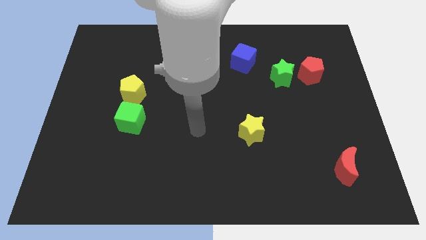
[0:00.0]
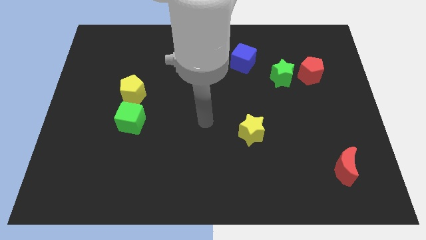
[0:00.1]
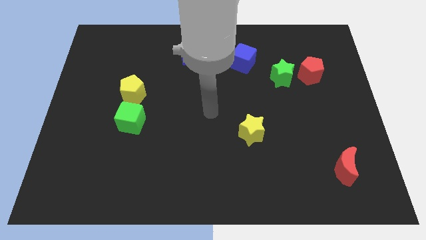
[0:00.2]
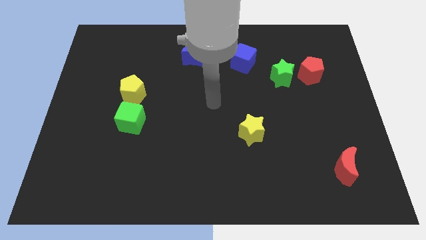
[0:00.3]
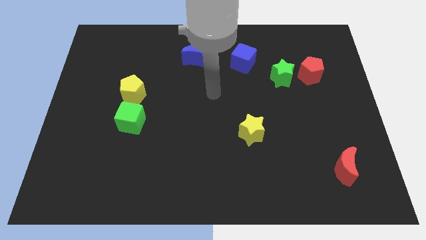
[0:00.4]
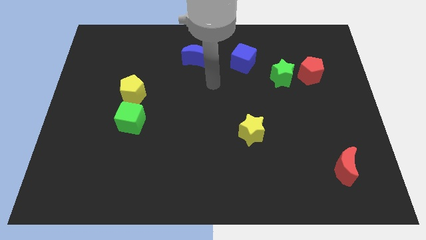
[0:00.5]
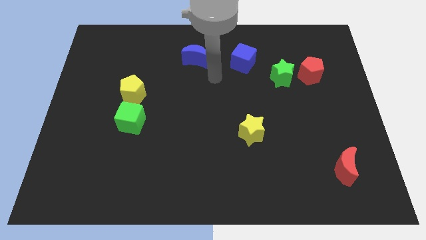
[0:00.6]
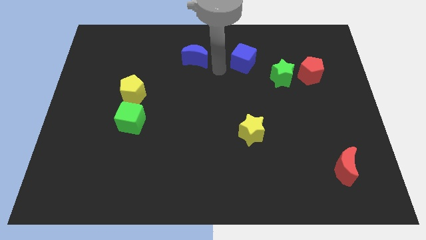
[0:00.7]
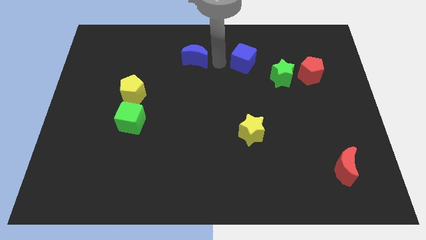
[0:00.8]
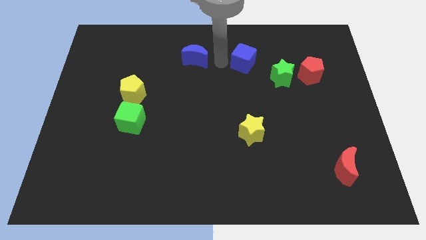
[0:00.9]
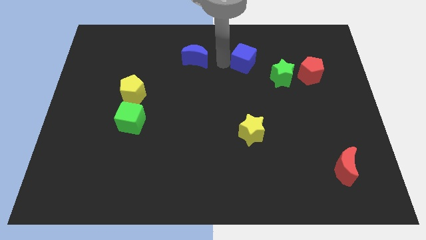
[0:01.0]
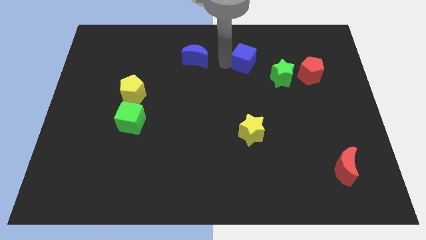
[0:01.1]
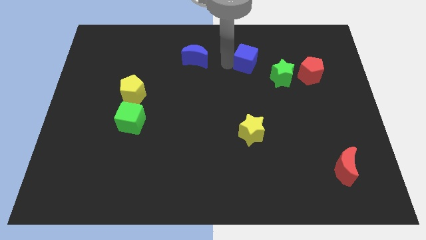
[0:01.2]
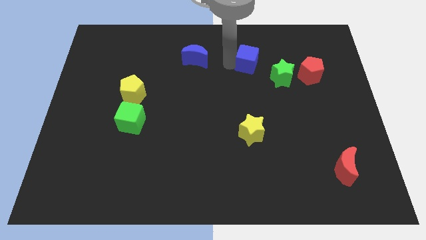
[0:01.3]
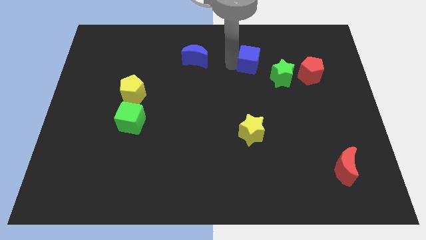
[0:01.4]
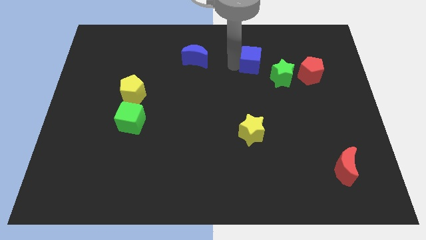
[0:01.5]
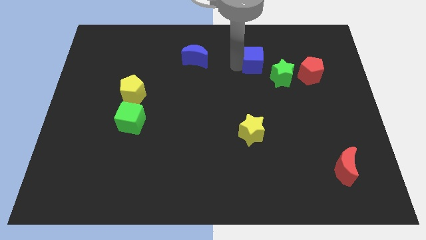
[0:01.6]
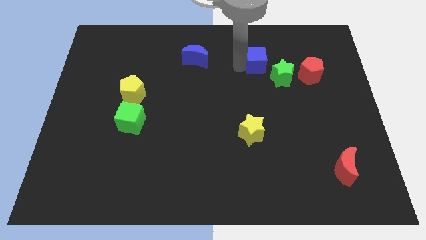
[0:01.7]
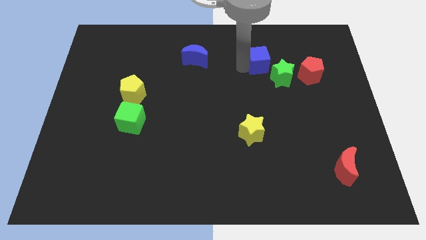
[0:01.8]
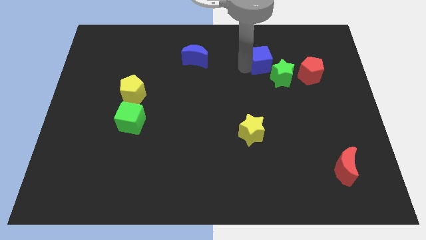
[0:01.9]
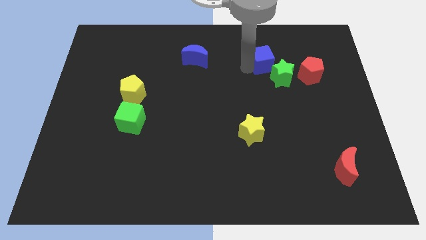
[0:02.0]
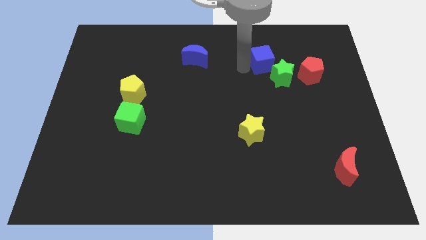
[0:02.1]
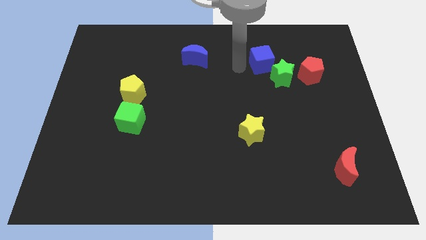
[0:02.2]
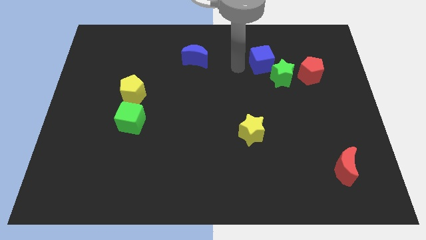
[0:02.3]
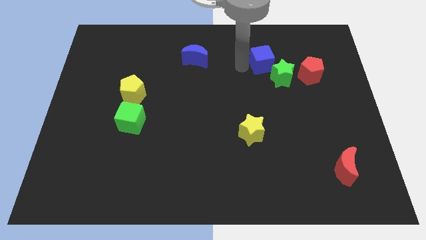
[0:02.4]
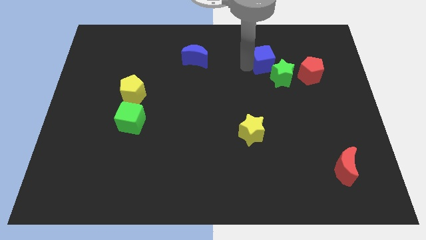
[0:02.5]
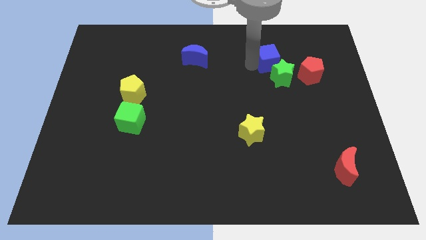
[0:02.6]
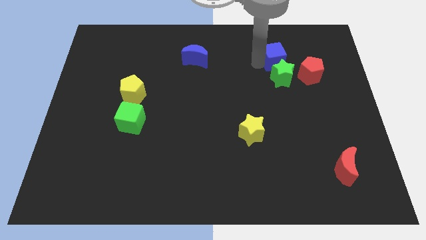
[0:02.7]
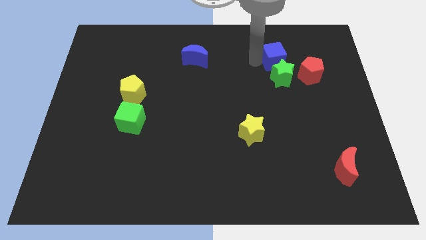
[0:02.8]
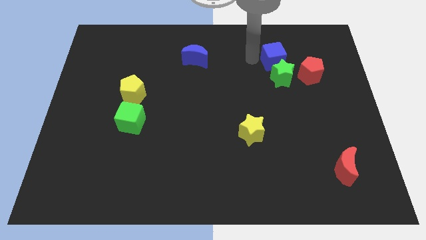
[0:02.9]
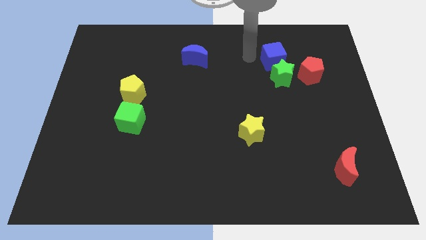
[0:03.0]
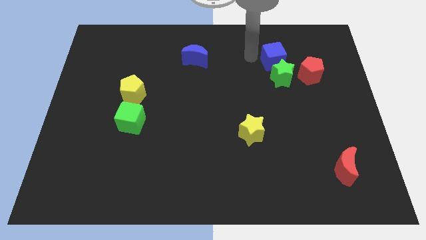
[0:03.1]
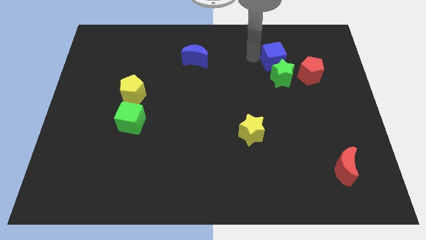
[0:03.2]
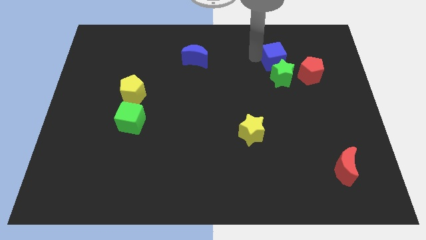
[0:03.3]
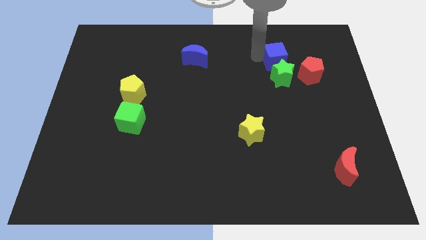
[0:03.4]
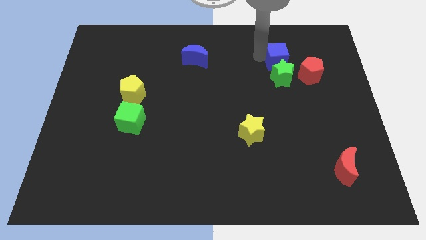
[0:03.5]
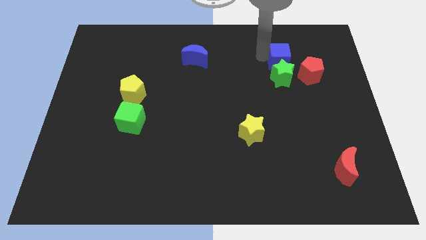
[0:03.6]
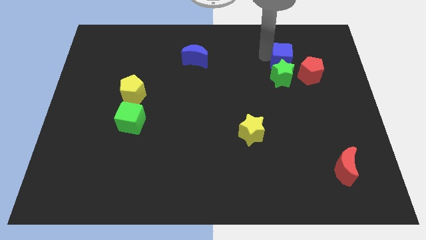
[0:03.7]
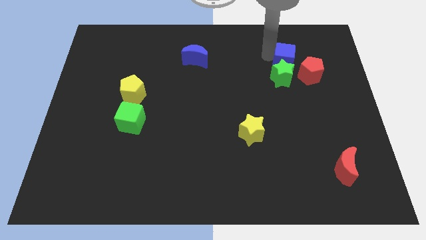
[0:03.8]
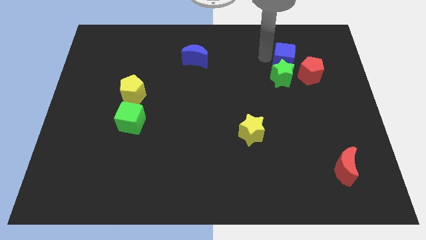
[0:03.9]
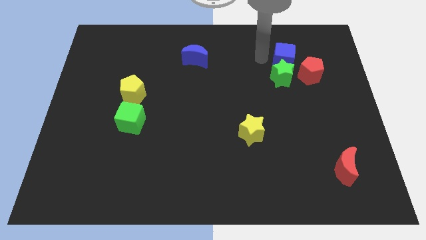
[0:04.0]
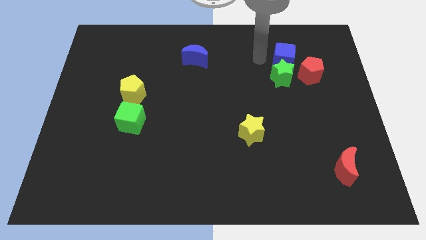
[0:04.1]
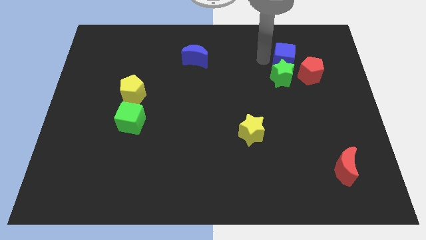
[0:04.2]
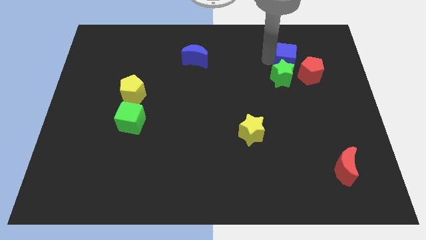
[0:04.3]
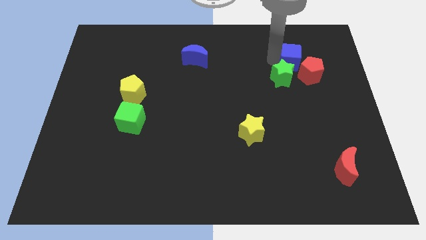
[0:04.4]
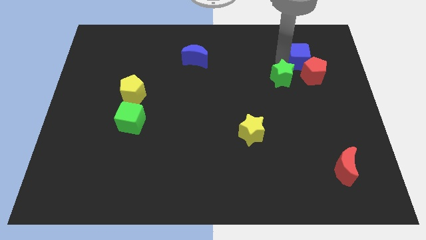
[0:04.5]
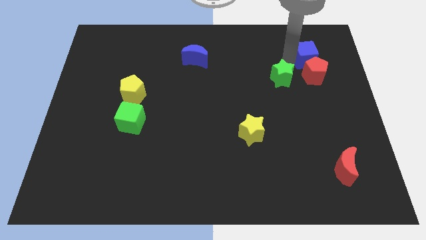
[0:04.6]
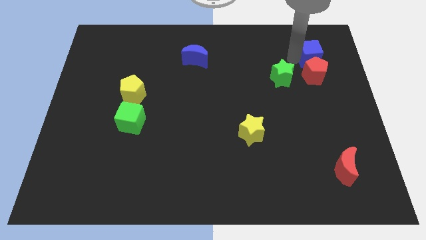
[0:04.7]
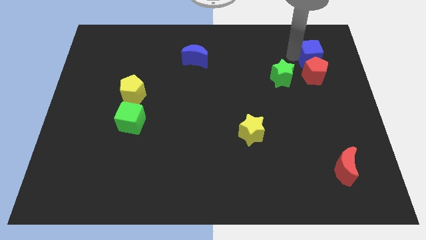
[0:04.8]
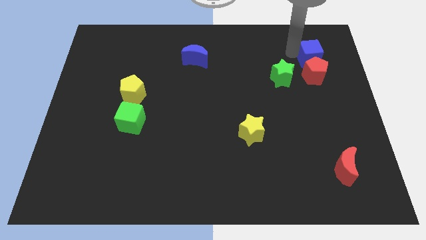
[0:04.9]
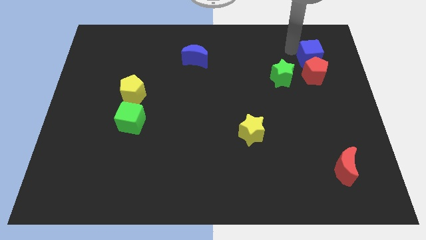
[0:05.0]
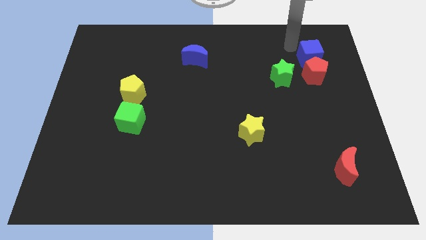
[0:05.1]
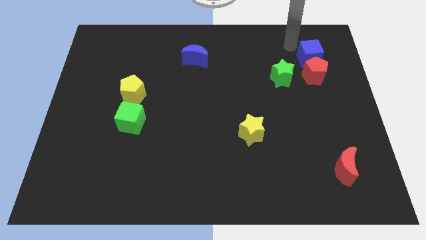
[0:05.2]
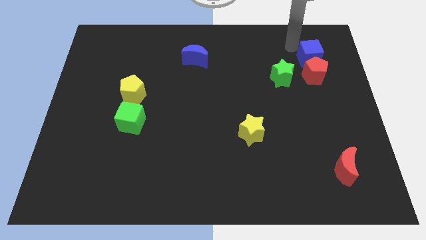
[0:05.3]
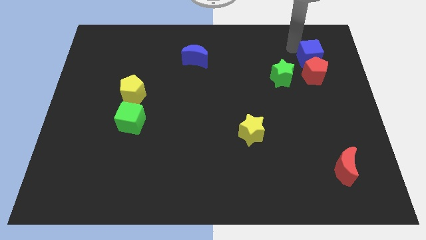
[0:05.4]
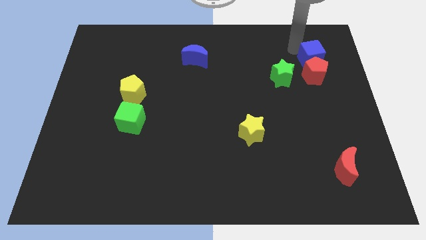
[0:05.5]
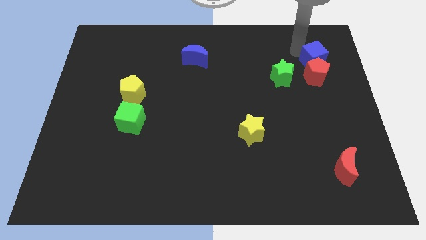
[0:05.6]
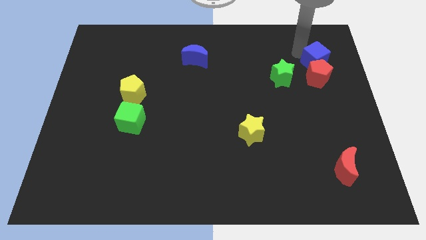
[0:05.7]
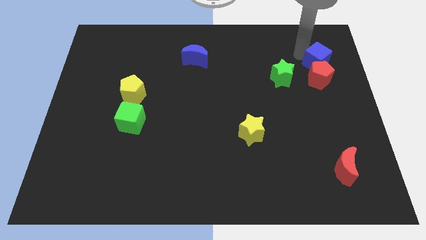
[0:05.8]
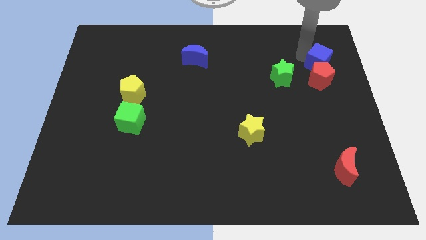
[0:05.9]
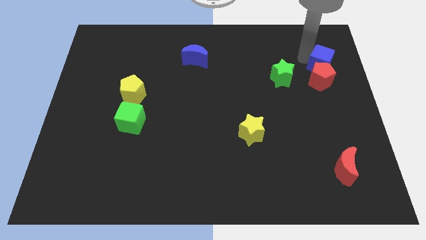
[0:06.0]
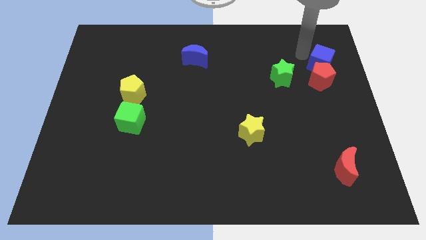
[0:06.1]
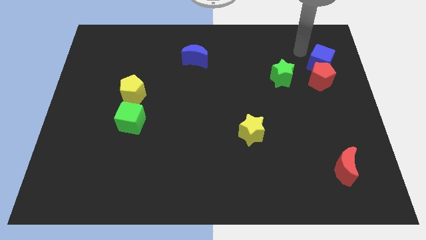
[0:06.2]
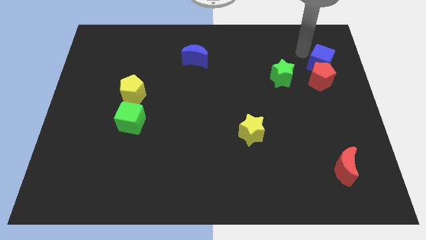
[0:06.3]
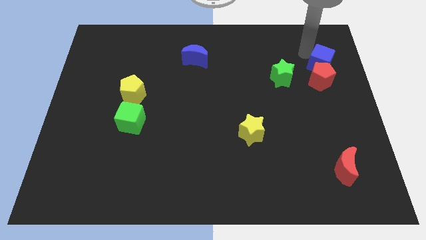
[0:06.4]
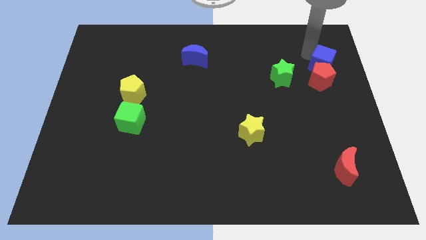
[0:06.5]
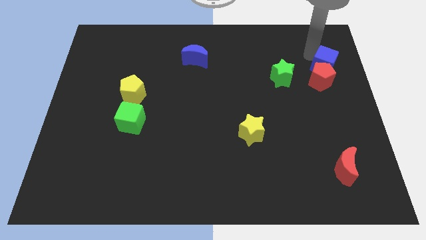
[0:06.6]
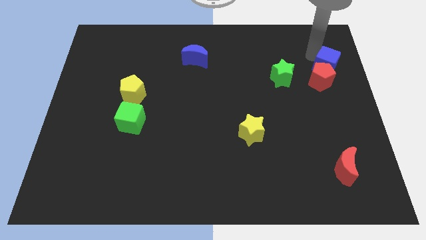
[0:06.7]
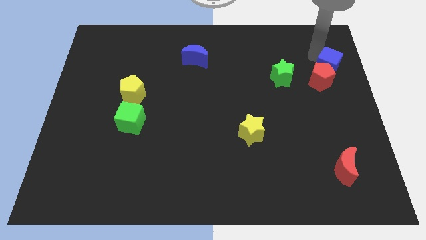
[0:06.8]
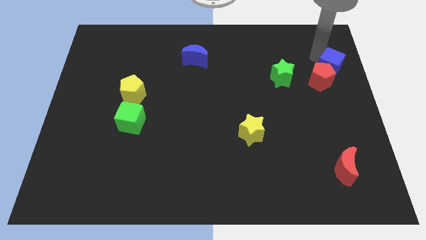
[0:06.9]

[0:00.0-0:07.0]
move the blue cube to the center right
